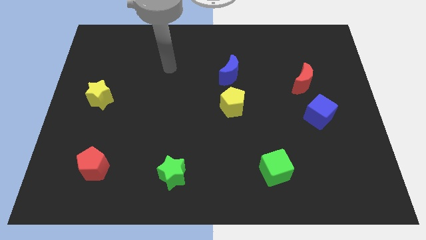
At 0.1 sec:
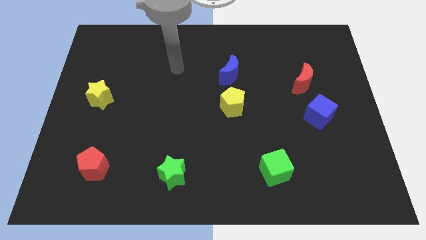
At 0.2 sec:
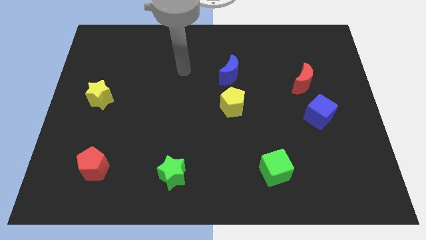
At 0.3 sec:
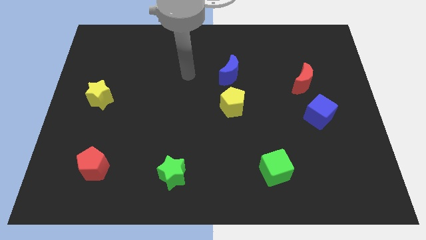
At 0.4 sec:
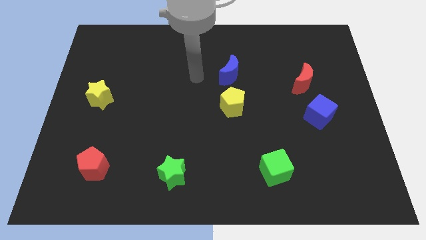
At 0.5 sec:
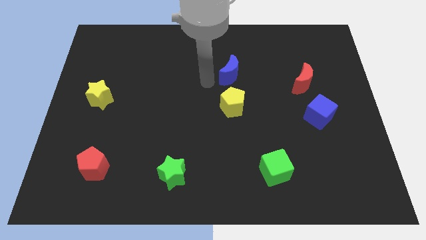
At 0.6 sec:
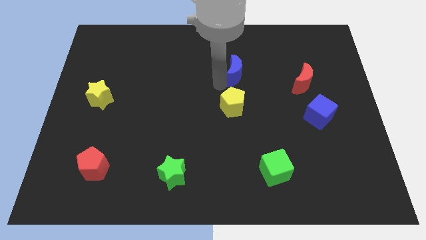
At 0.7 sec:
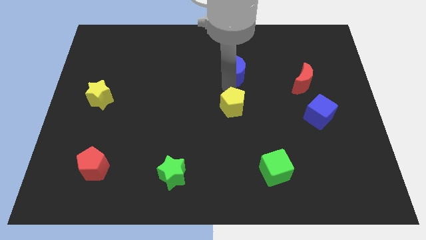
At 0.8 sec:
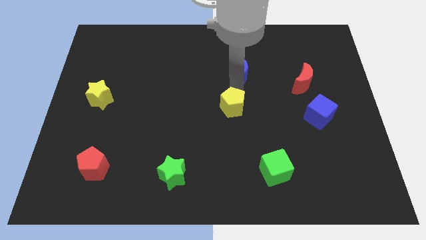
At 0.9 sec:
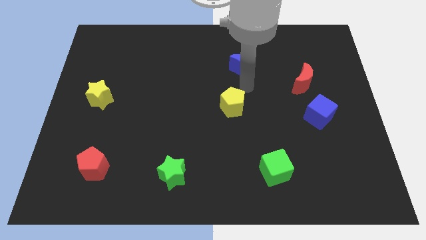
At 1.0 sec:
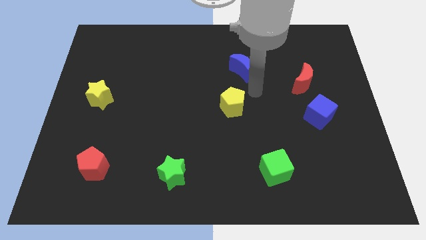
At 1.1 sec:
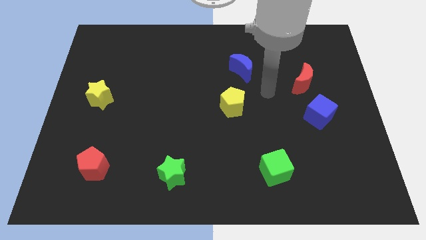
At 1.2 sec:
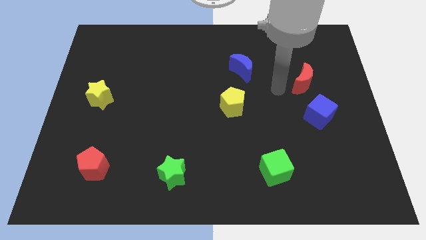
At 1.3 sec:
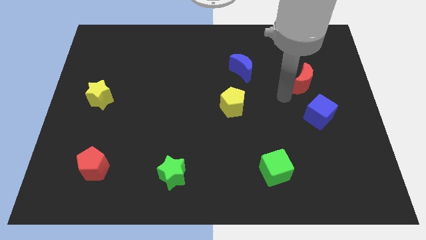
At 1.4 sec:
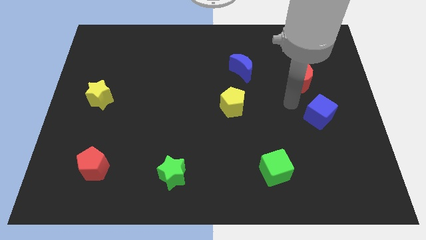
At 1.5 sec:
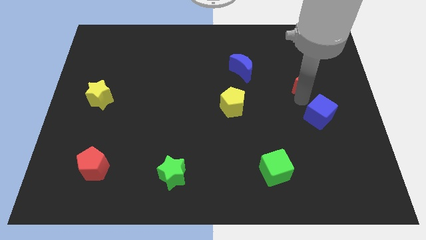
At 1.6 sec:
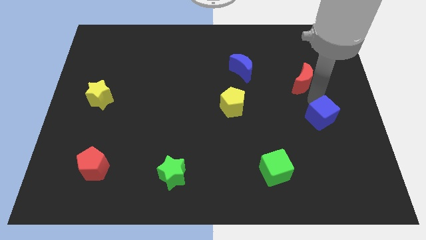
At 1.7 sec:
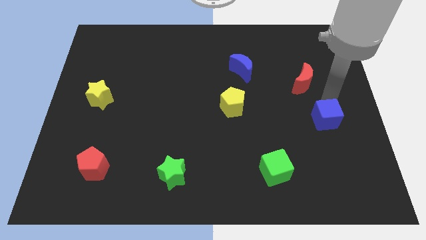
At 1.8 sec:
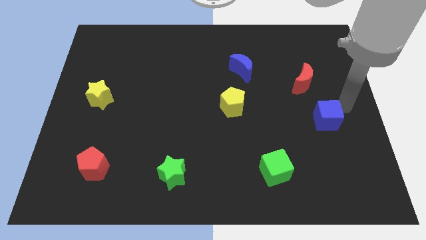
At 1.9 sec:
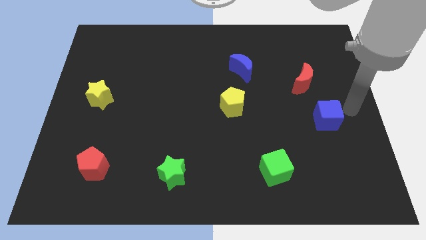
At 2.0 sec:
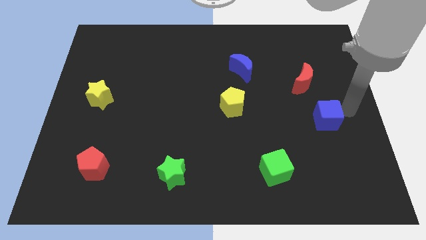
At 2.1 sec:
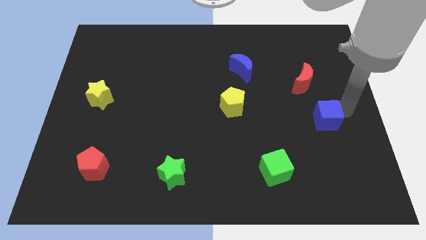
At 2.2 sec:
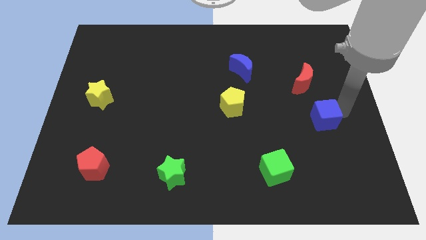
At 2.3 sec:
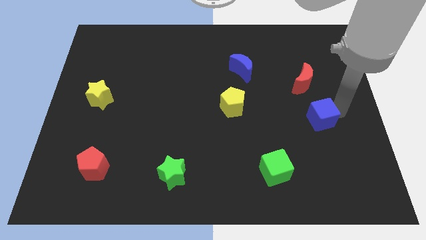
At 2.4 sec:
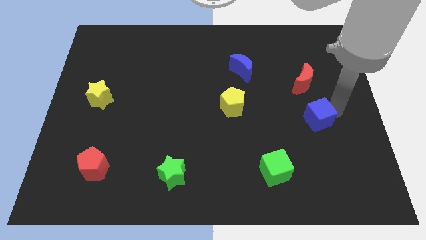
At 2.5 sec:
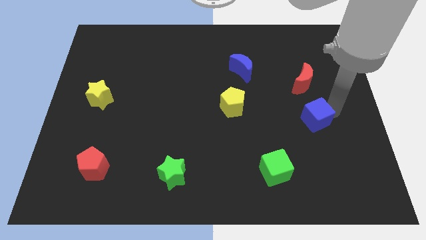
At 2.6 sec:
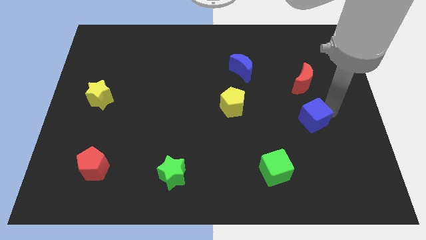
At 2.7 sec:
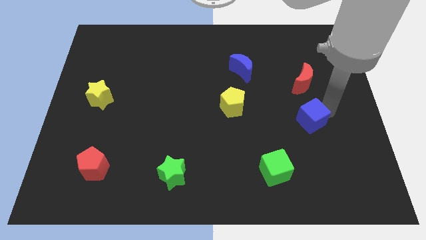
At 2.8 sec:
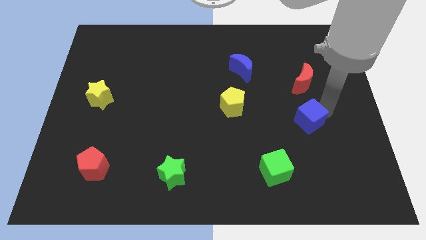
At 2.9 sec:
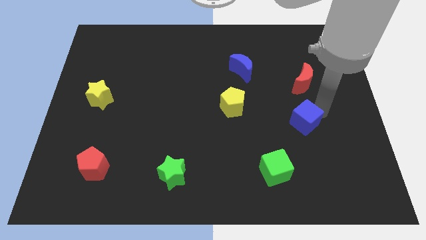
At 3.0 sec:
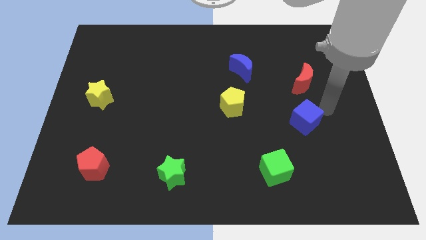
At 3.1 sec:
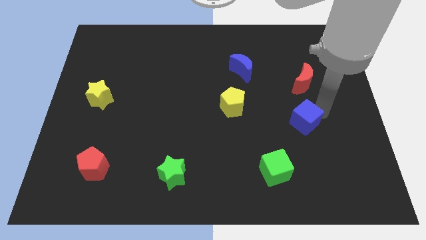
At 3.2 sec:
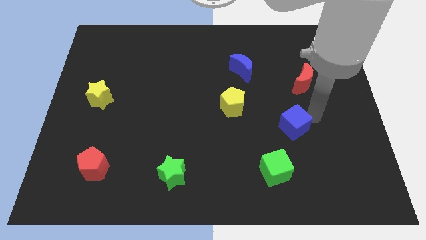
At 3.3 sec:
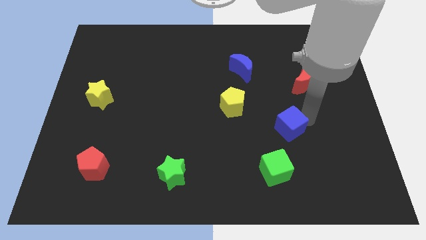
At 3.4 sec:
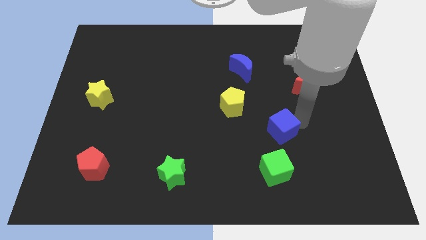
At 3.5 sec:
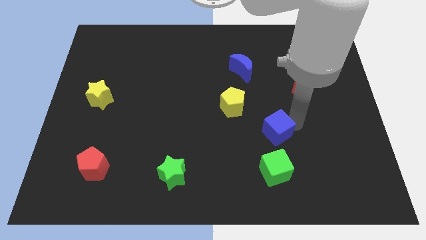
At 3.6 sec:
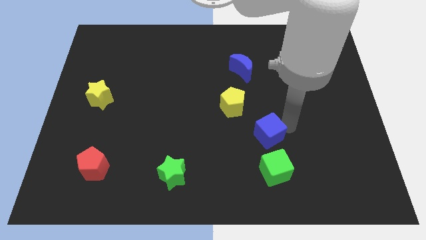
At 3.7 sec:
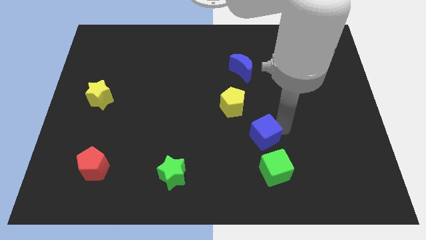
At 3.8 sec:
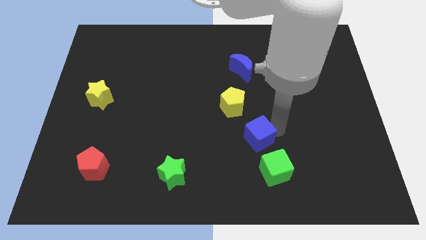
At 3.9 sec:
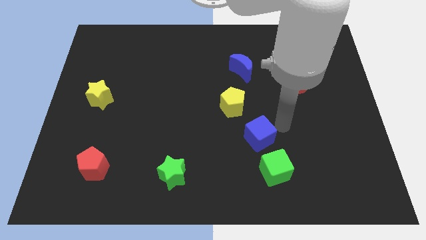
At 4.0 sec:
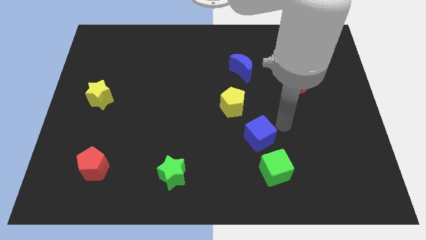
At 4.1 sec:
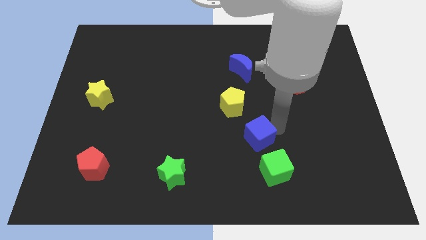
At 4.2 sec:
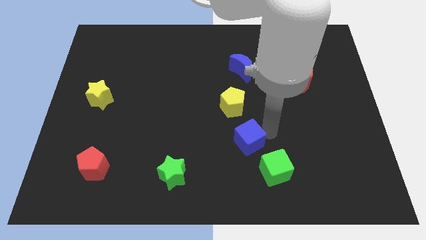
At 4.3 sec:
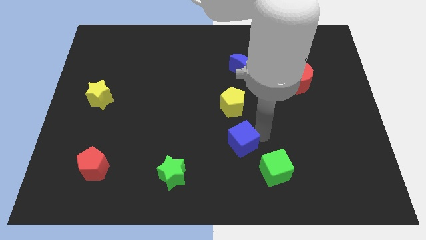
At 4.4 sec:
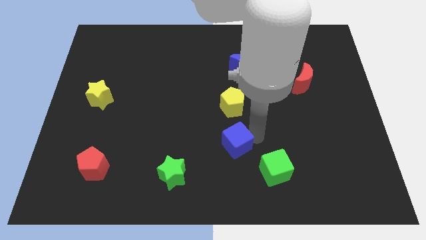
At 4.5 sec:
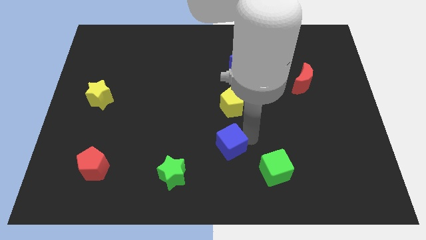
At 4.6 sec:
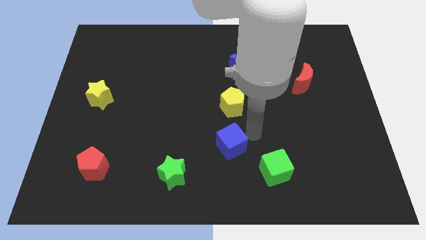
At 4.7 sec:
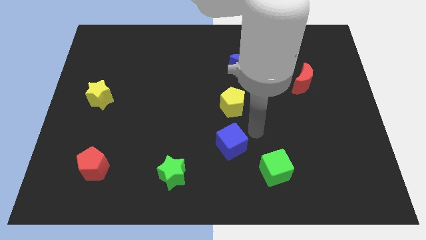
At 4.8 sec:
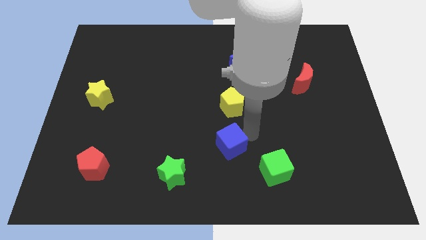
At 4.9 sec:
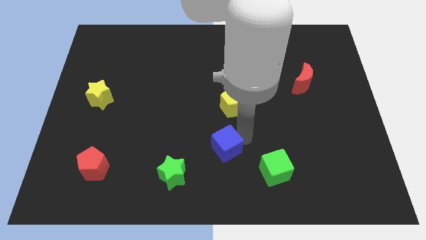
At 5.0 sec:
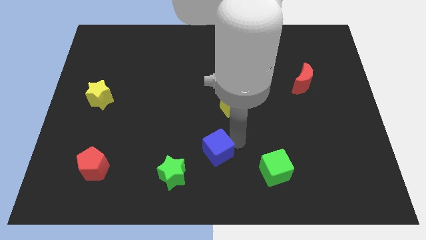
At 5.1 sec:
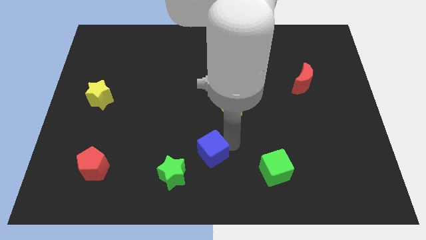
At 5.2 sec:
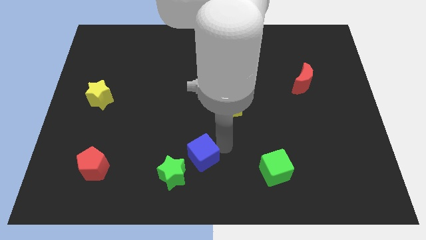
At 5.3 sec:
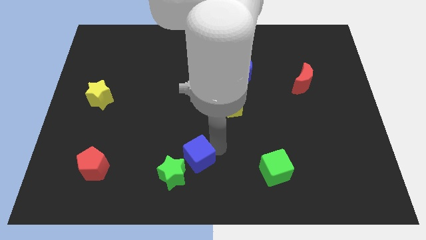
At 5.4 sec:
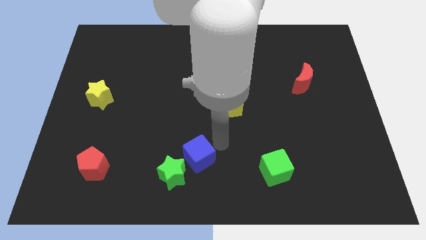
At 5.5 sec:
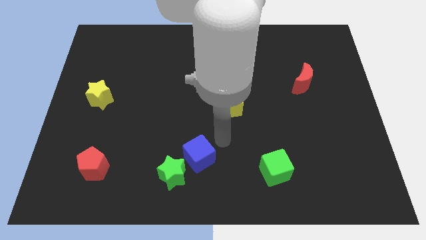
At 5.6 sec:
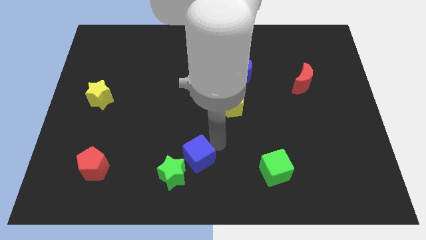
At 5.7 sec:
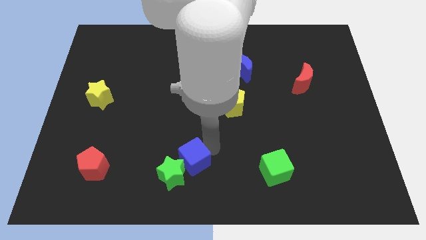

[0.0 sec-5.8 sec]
put the blue cube close to the green star

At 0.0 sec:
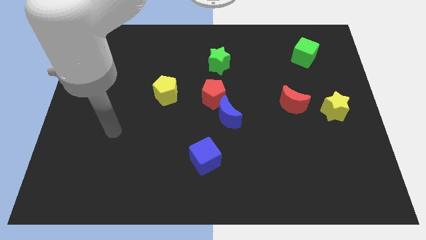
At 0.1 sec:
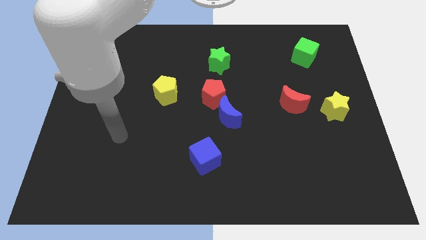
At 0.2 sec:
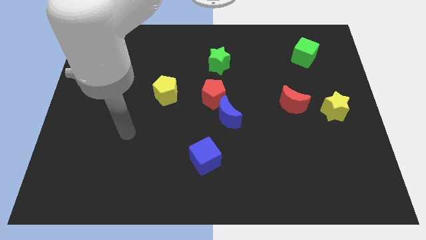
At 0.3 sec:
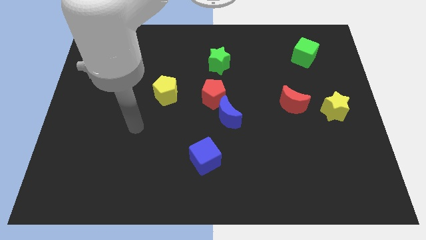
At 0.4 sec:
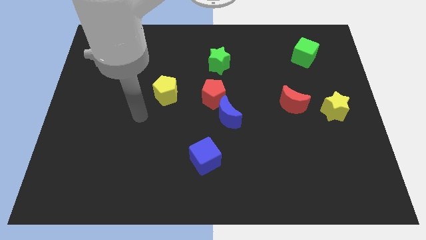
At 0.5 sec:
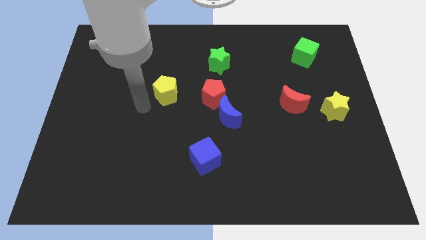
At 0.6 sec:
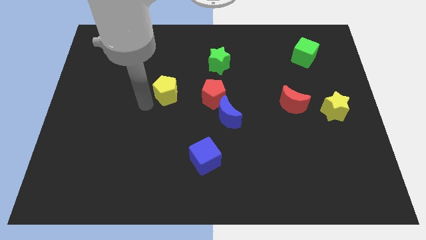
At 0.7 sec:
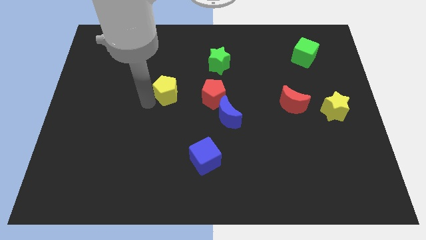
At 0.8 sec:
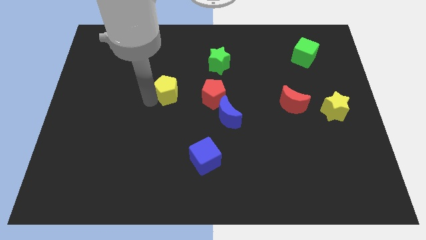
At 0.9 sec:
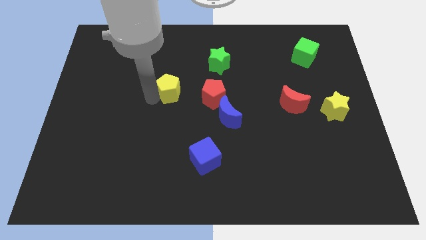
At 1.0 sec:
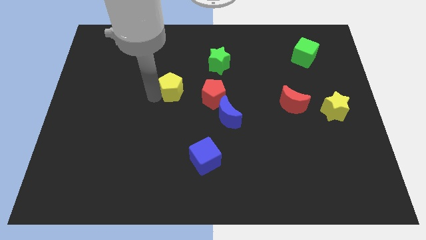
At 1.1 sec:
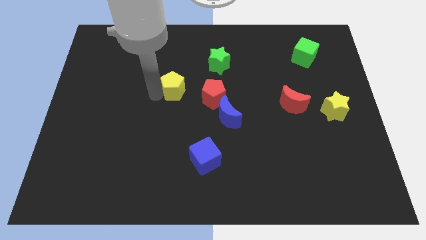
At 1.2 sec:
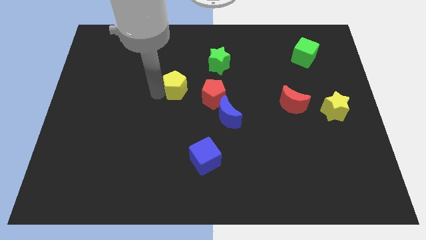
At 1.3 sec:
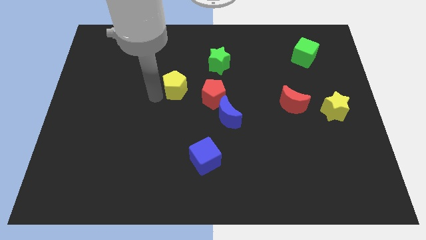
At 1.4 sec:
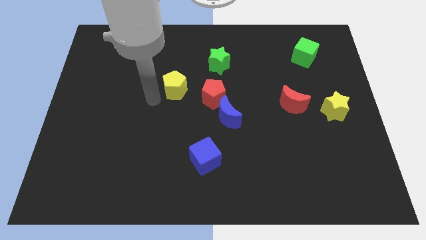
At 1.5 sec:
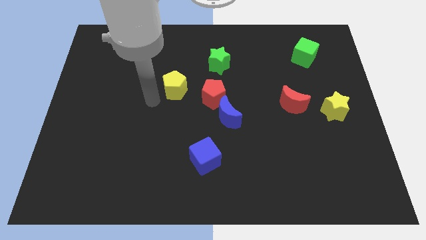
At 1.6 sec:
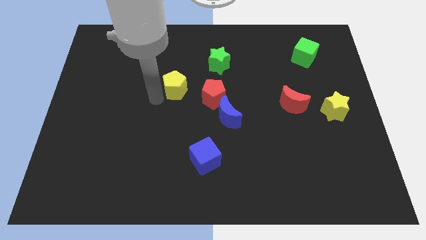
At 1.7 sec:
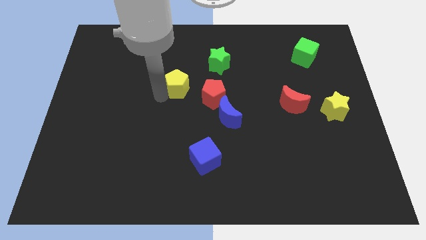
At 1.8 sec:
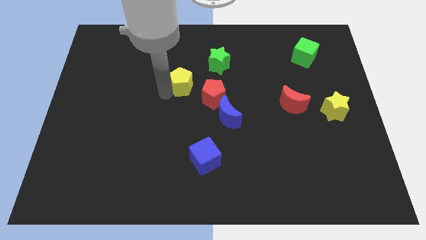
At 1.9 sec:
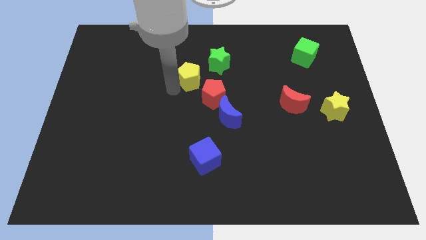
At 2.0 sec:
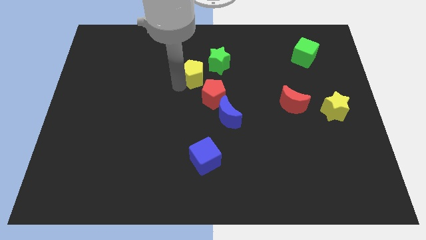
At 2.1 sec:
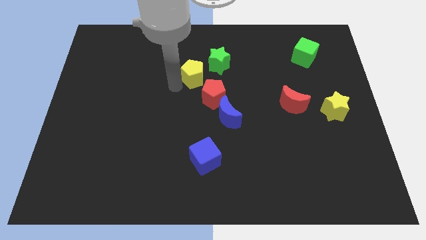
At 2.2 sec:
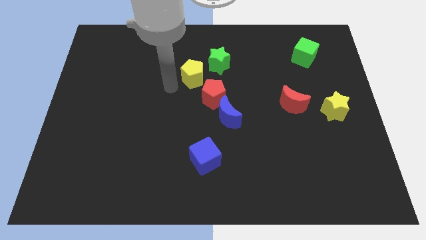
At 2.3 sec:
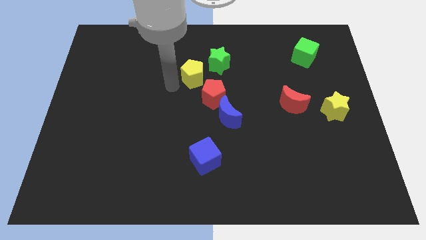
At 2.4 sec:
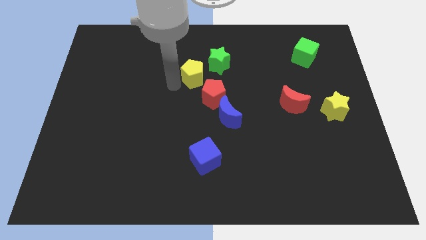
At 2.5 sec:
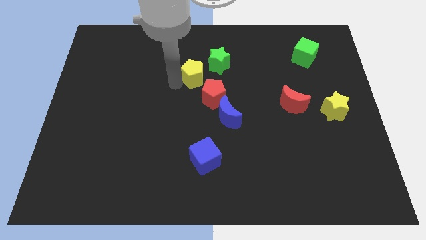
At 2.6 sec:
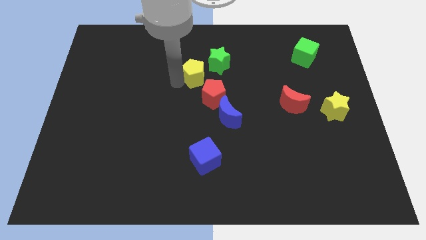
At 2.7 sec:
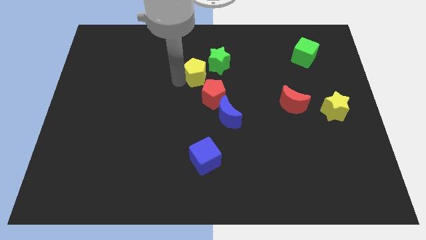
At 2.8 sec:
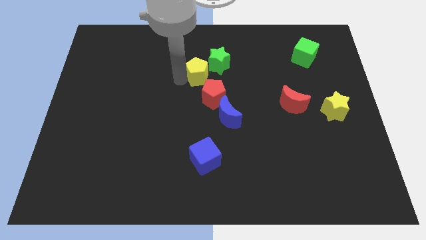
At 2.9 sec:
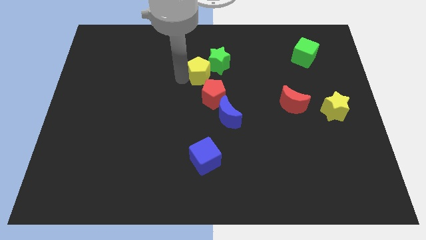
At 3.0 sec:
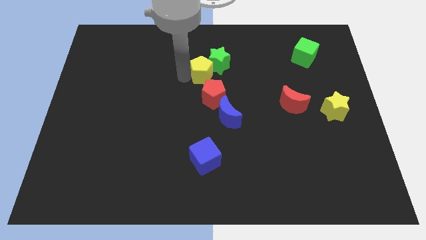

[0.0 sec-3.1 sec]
slide the yellow pentagon towards the green star
